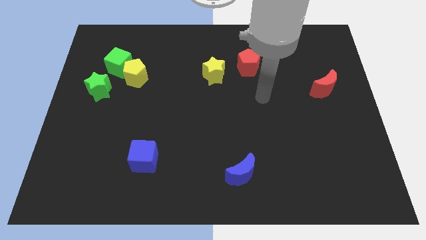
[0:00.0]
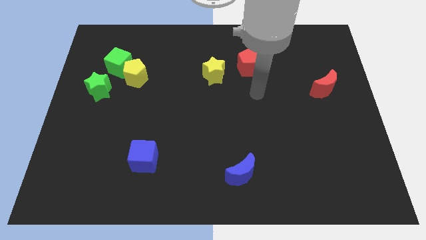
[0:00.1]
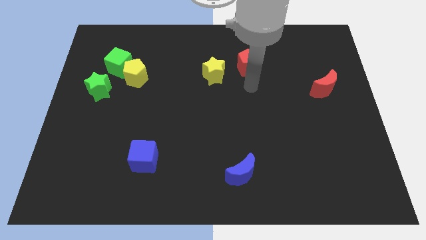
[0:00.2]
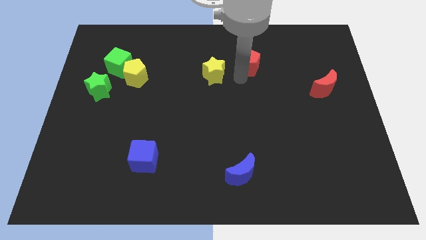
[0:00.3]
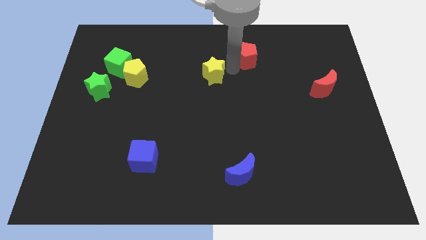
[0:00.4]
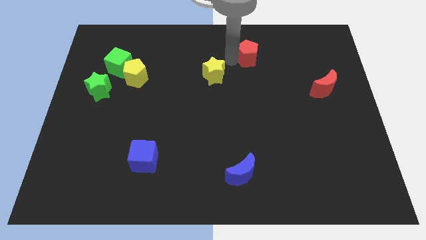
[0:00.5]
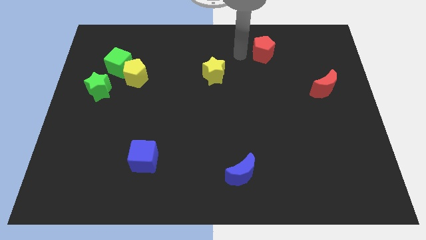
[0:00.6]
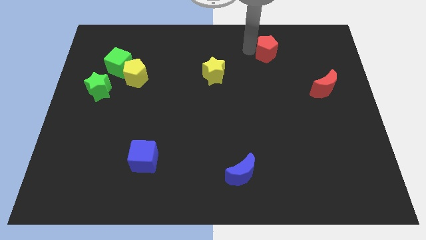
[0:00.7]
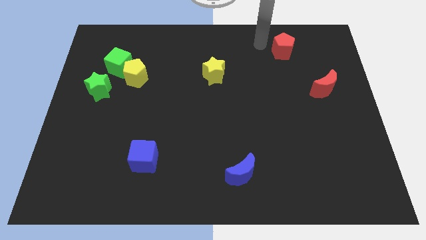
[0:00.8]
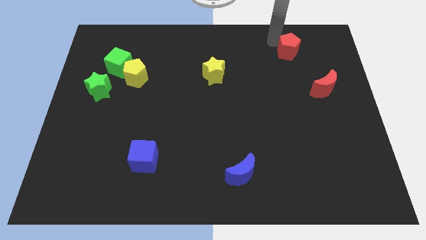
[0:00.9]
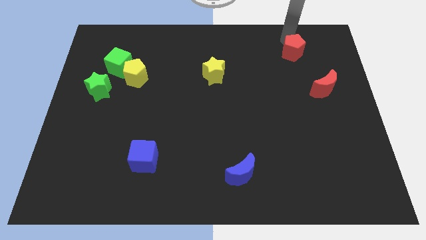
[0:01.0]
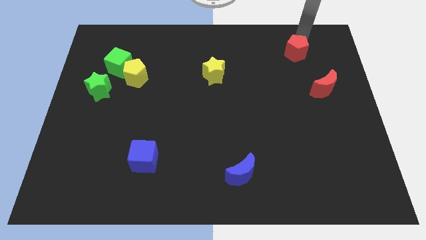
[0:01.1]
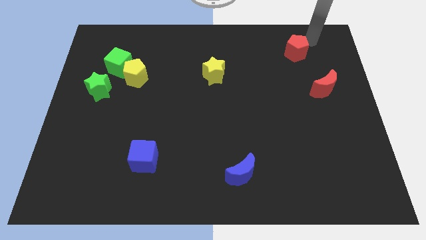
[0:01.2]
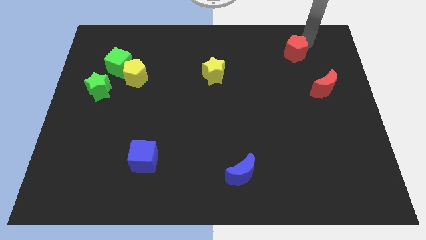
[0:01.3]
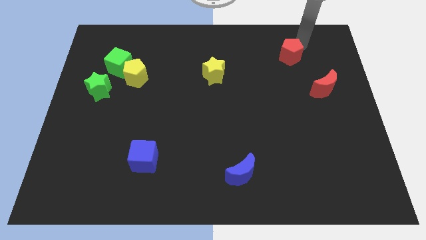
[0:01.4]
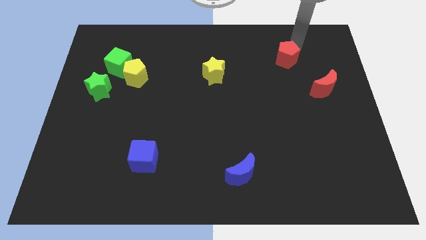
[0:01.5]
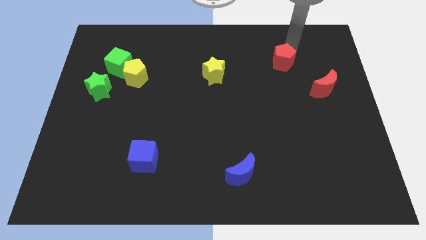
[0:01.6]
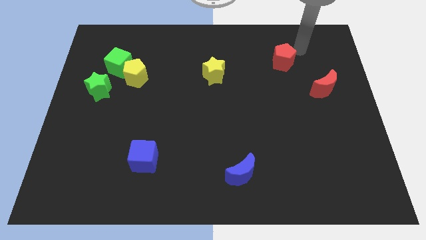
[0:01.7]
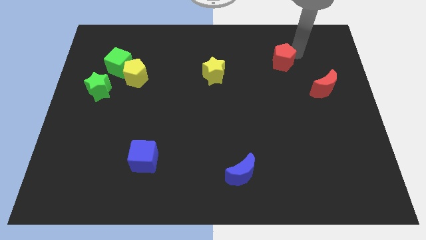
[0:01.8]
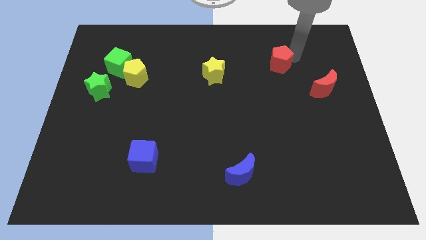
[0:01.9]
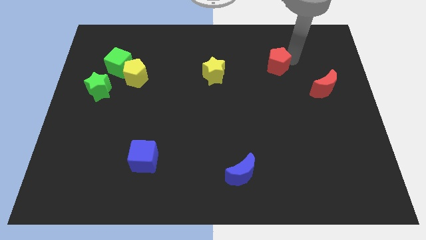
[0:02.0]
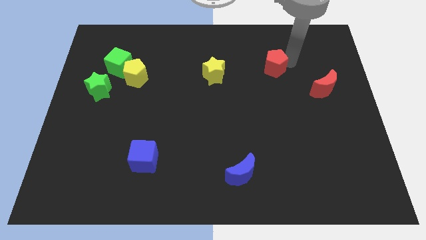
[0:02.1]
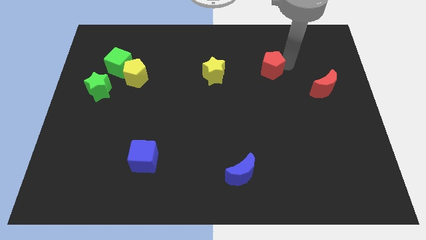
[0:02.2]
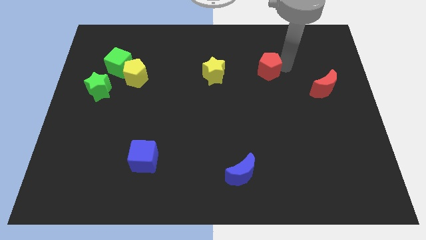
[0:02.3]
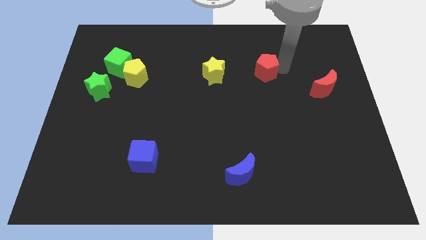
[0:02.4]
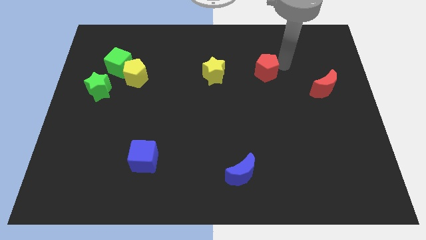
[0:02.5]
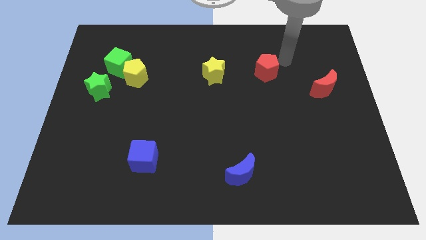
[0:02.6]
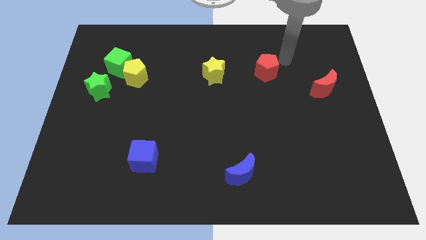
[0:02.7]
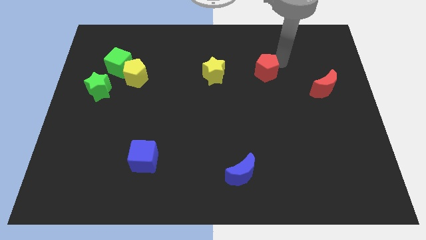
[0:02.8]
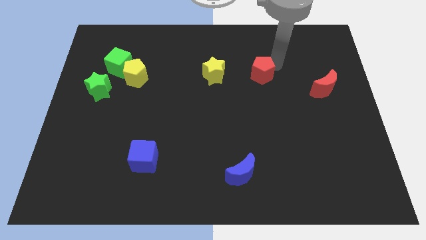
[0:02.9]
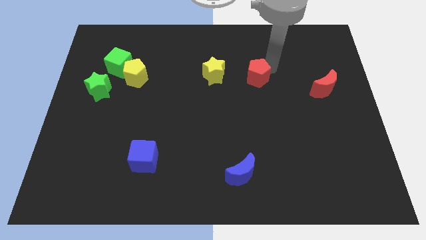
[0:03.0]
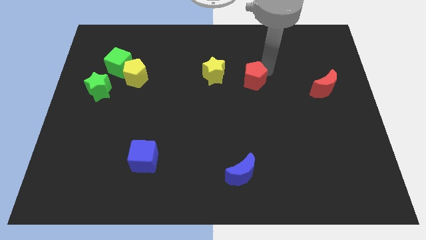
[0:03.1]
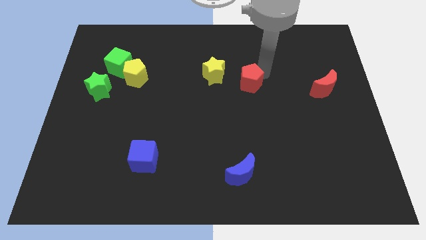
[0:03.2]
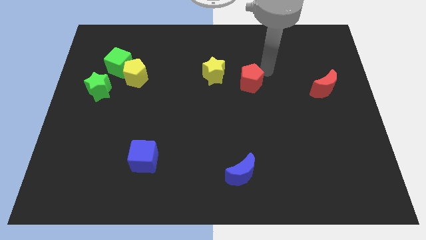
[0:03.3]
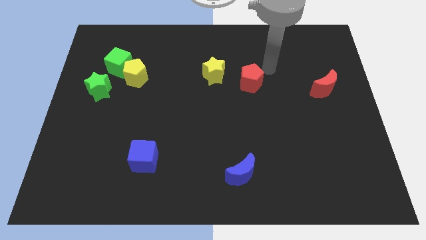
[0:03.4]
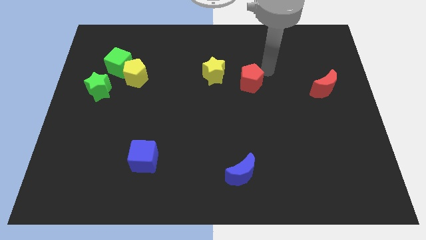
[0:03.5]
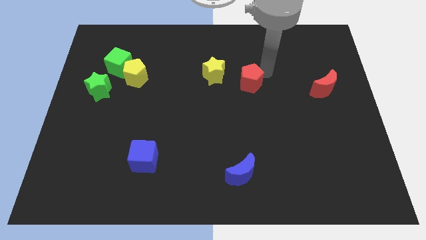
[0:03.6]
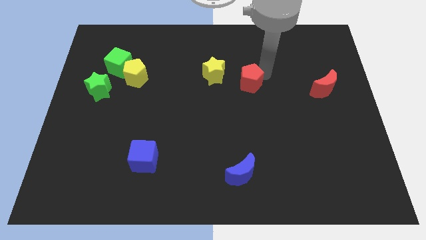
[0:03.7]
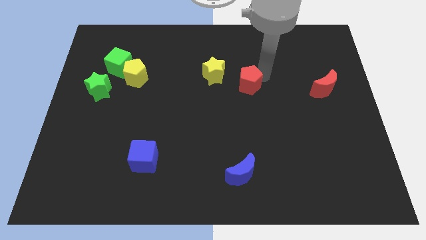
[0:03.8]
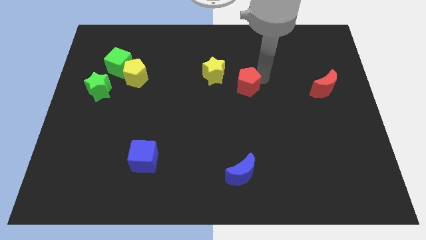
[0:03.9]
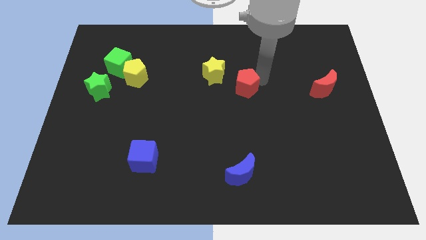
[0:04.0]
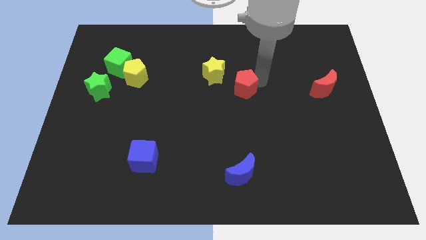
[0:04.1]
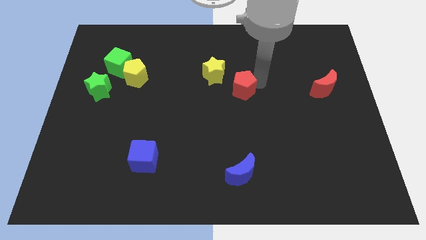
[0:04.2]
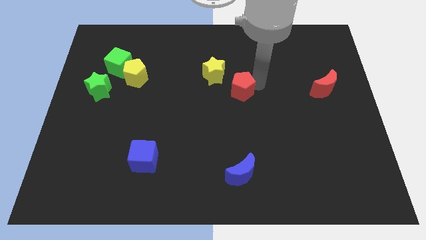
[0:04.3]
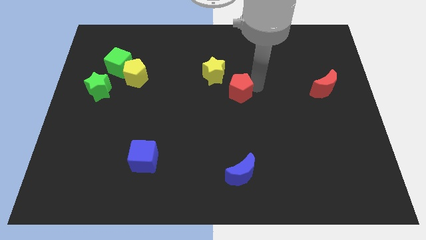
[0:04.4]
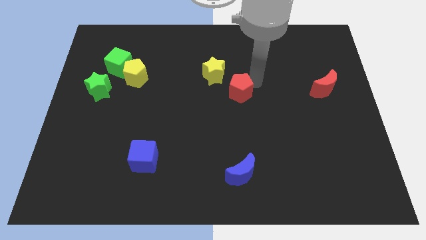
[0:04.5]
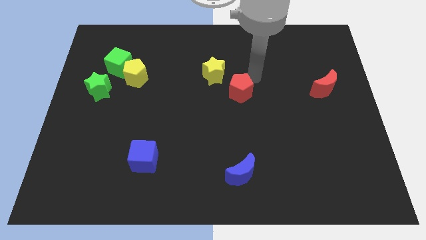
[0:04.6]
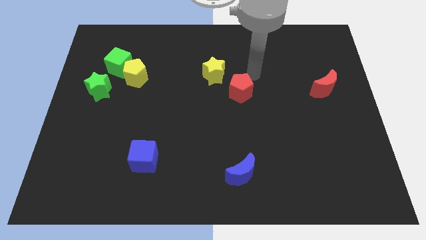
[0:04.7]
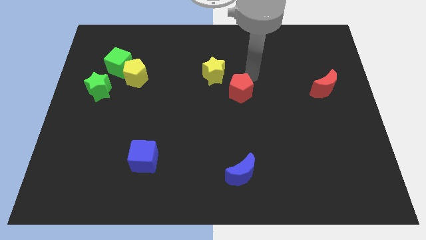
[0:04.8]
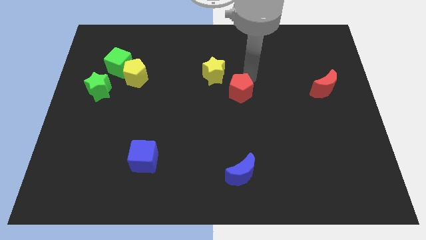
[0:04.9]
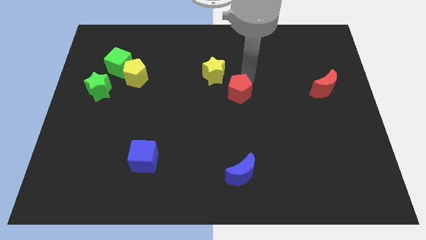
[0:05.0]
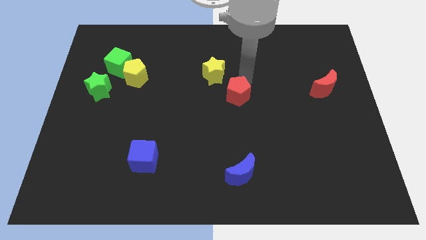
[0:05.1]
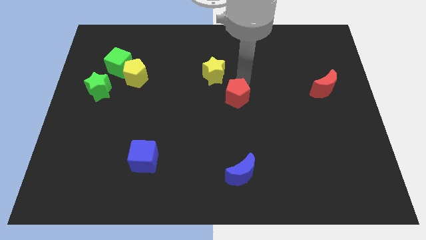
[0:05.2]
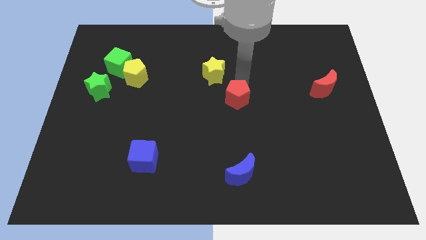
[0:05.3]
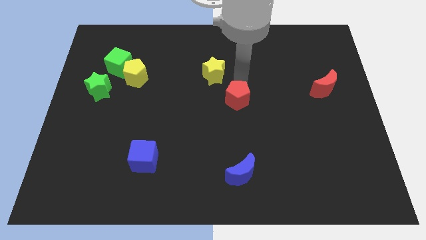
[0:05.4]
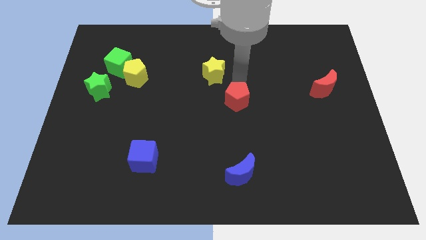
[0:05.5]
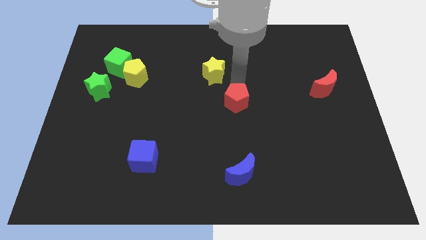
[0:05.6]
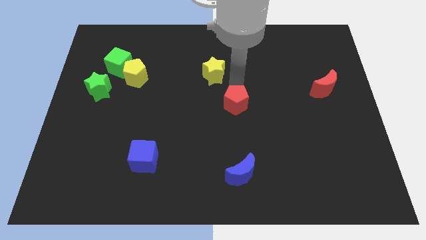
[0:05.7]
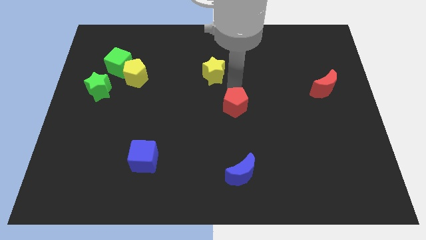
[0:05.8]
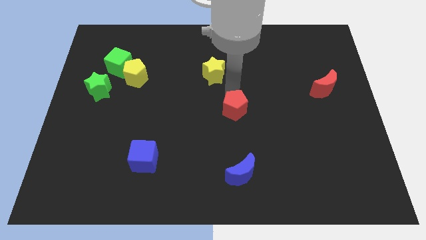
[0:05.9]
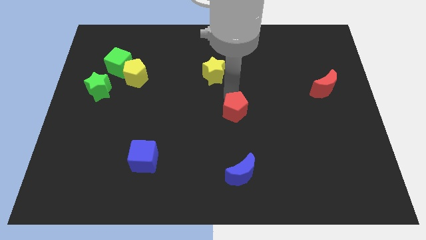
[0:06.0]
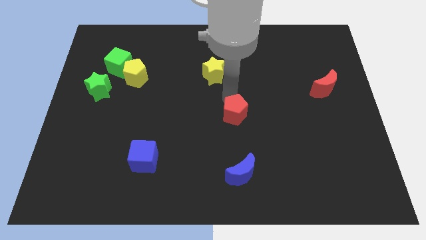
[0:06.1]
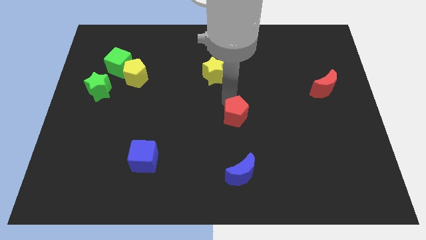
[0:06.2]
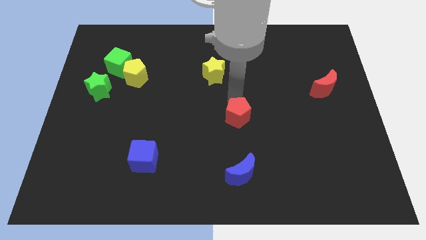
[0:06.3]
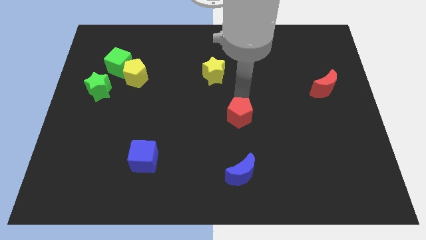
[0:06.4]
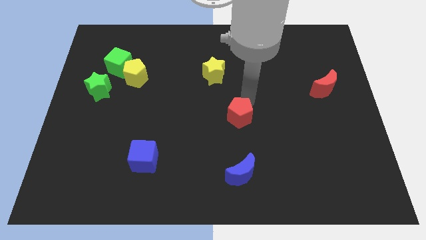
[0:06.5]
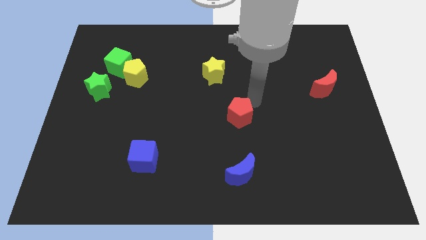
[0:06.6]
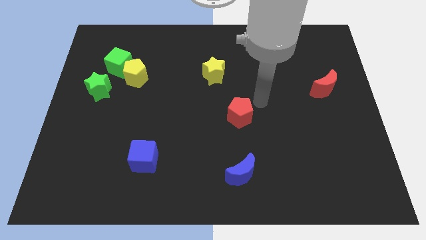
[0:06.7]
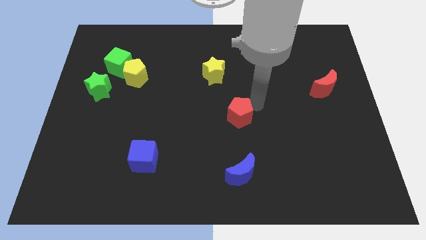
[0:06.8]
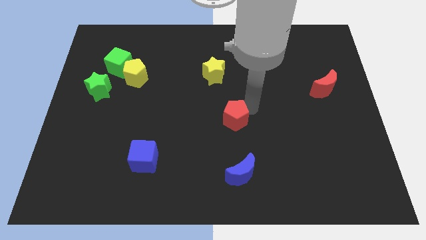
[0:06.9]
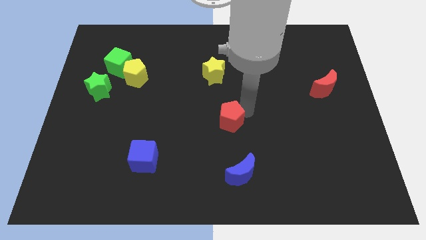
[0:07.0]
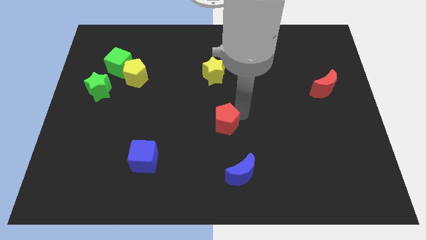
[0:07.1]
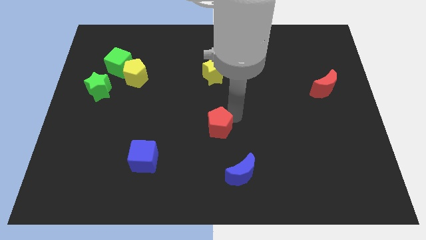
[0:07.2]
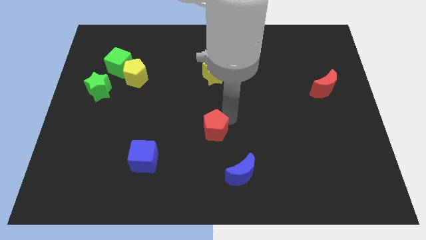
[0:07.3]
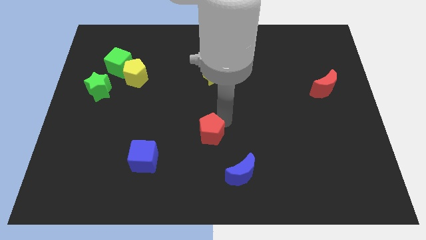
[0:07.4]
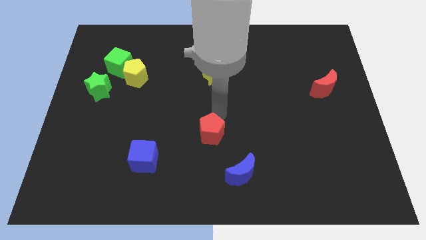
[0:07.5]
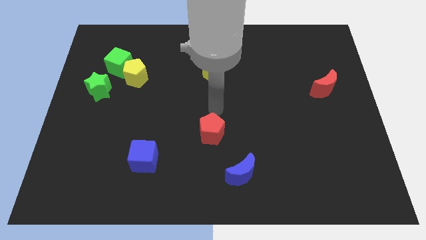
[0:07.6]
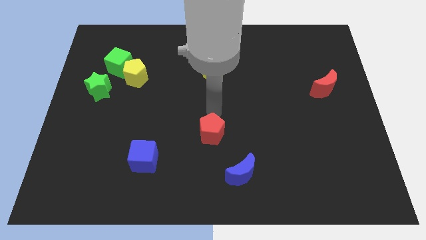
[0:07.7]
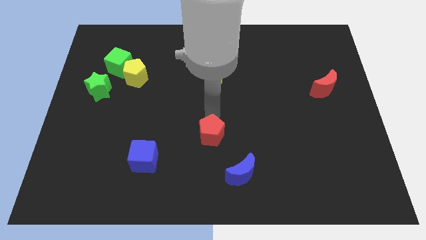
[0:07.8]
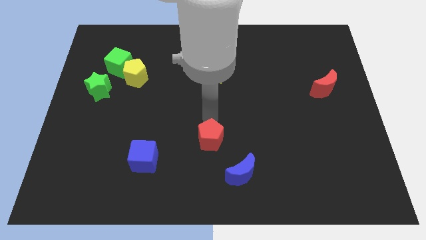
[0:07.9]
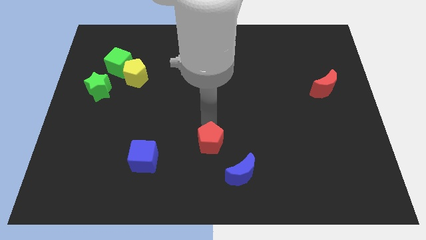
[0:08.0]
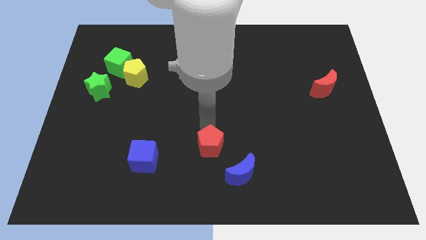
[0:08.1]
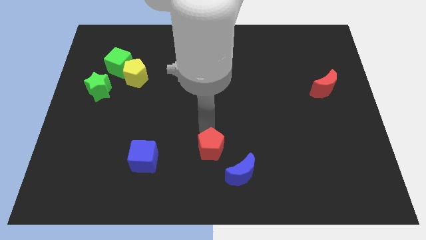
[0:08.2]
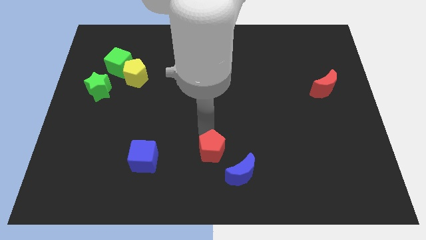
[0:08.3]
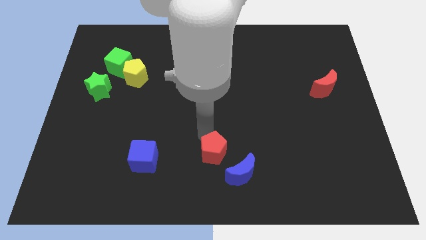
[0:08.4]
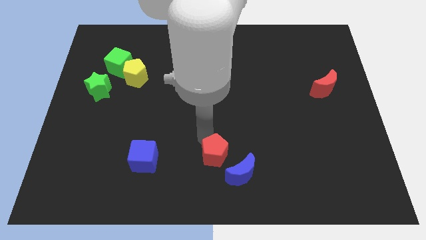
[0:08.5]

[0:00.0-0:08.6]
slide the red pentagon to the bottom
